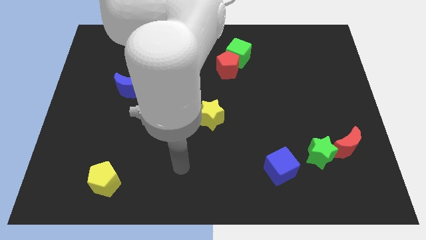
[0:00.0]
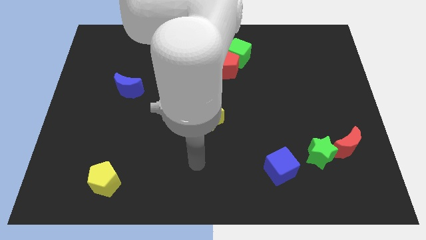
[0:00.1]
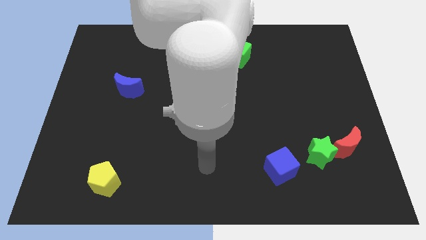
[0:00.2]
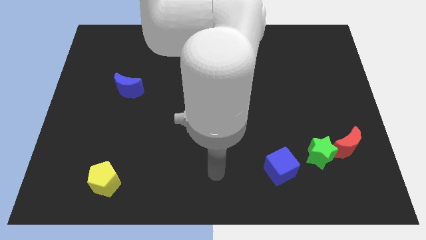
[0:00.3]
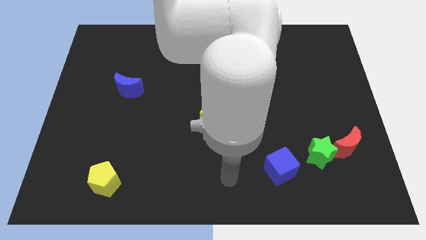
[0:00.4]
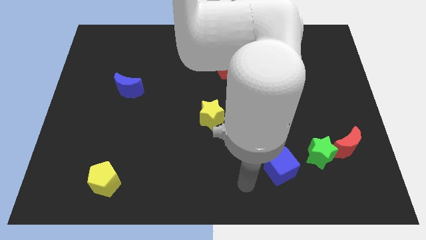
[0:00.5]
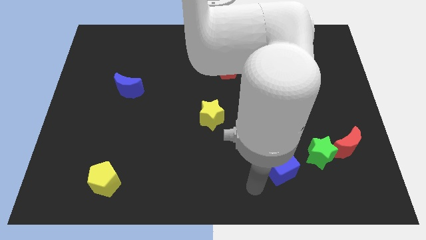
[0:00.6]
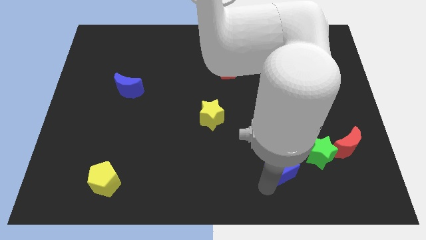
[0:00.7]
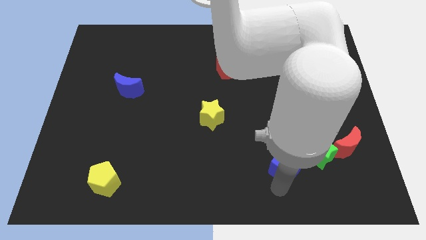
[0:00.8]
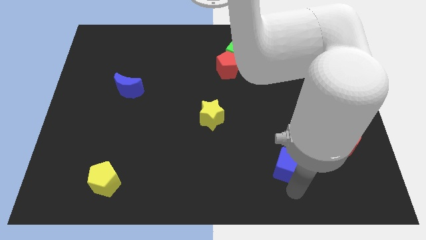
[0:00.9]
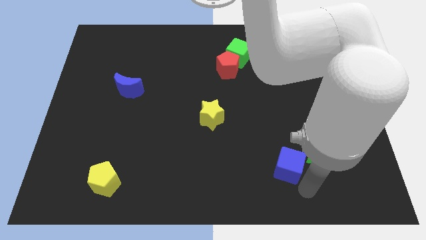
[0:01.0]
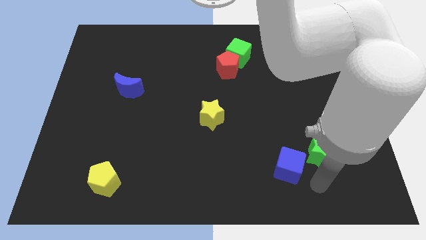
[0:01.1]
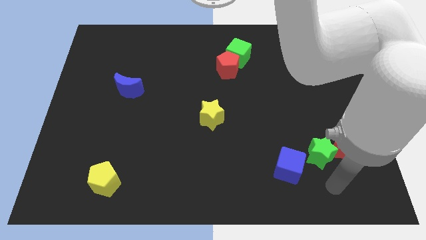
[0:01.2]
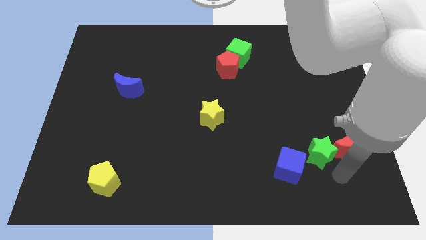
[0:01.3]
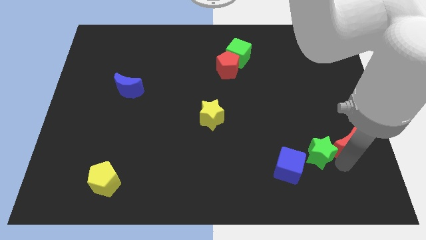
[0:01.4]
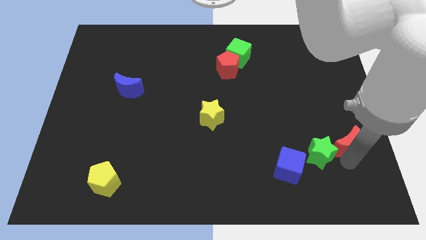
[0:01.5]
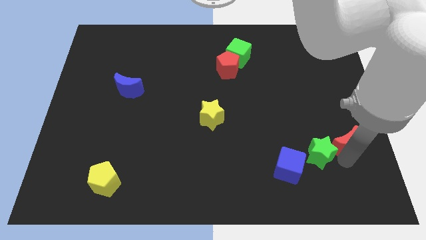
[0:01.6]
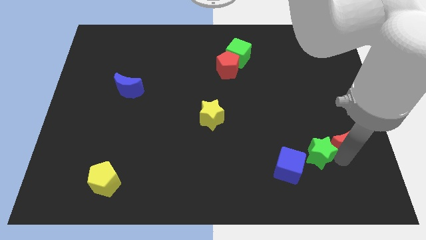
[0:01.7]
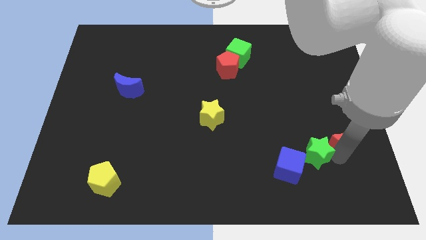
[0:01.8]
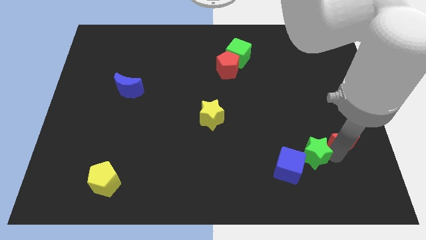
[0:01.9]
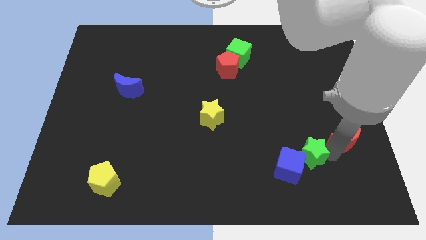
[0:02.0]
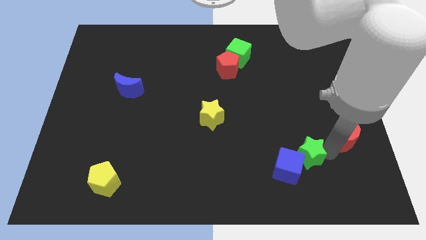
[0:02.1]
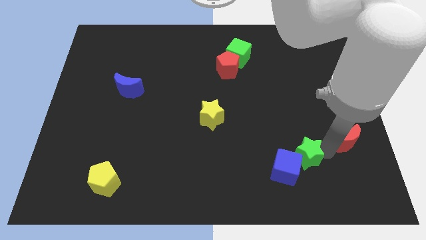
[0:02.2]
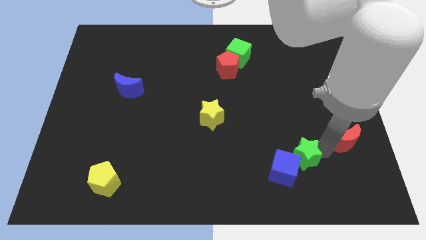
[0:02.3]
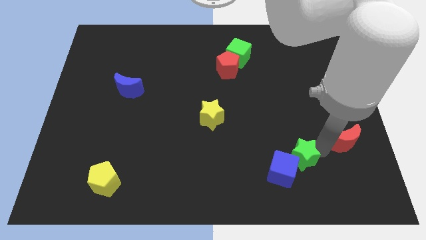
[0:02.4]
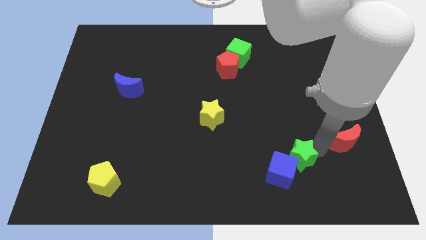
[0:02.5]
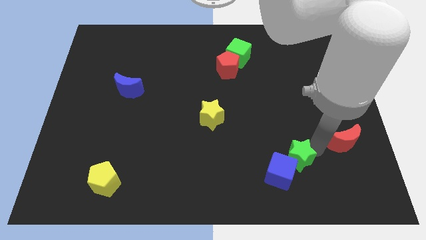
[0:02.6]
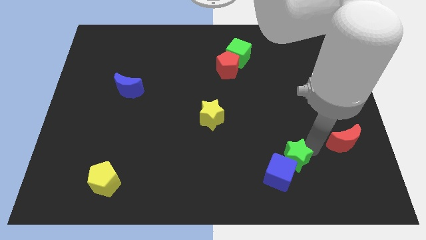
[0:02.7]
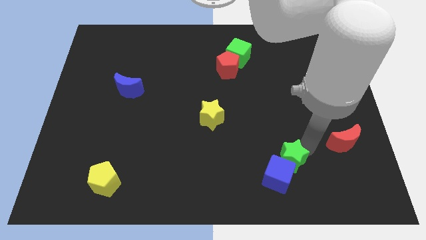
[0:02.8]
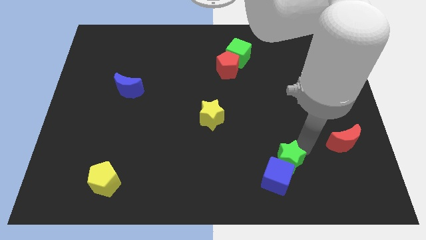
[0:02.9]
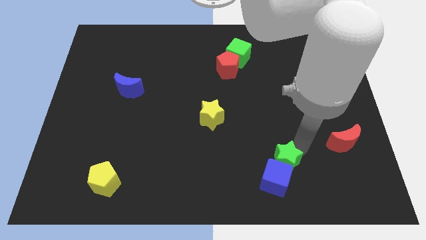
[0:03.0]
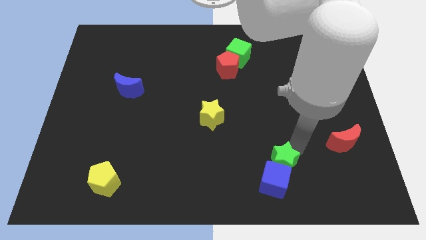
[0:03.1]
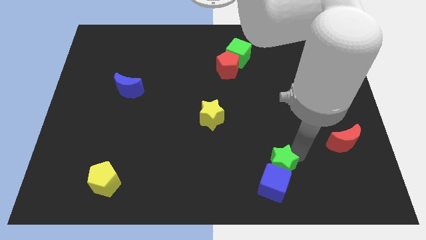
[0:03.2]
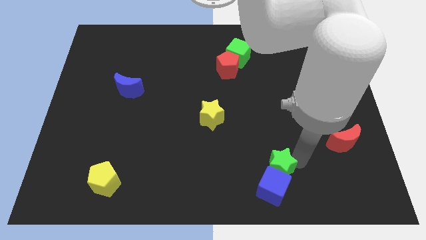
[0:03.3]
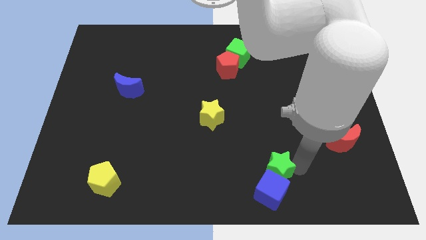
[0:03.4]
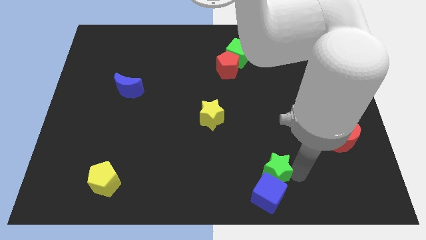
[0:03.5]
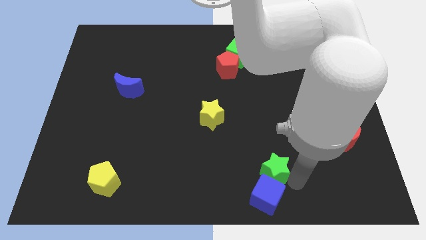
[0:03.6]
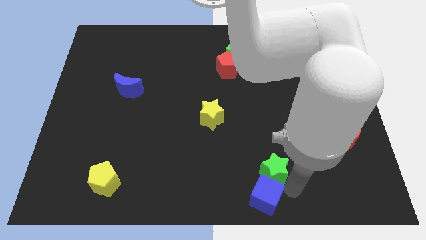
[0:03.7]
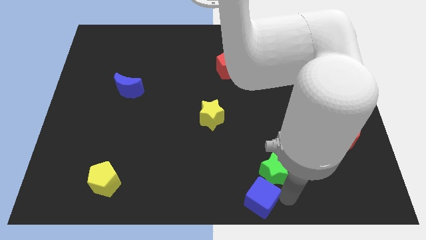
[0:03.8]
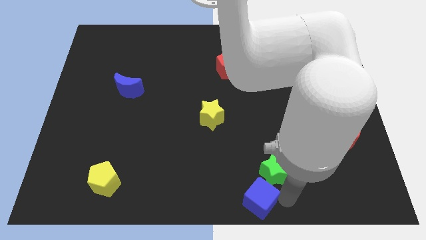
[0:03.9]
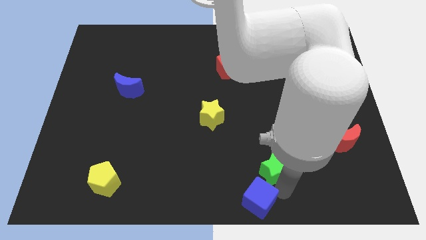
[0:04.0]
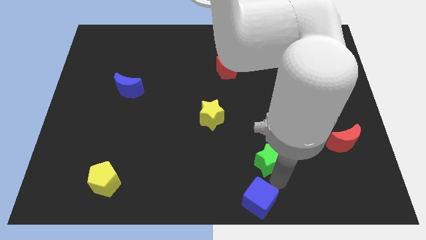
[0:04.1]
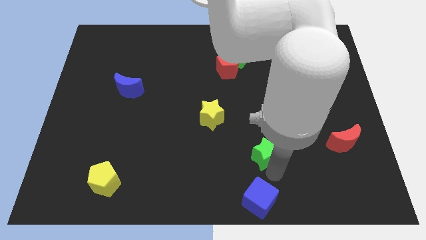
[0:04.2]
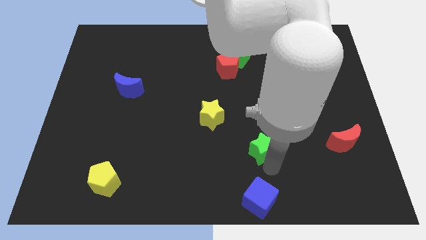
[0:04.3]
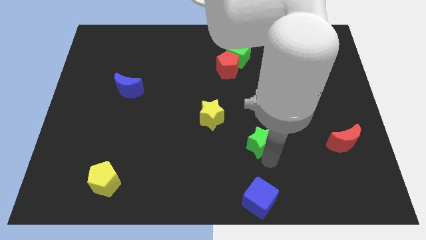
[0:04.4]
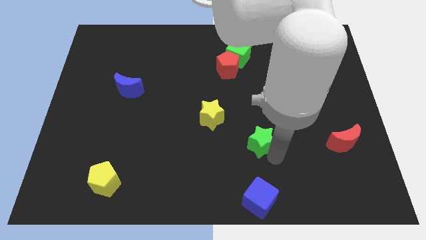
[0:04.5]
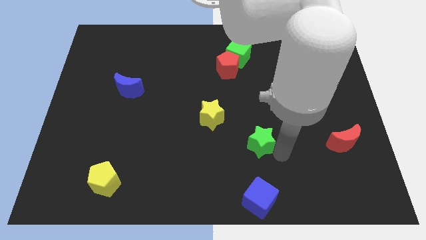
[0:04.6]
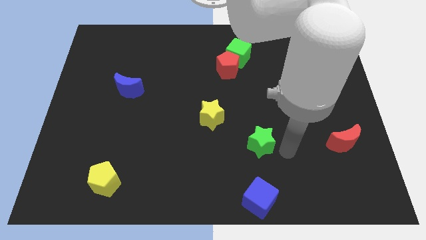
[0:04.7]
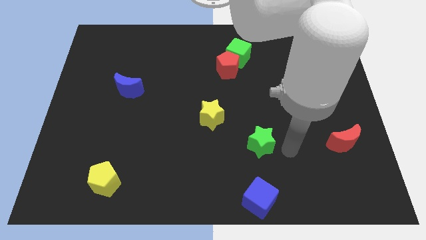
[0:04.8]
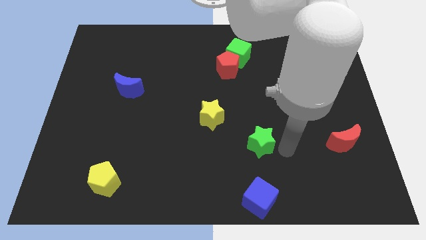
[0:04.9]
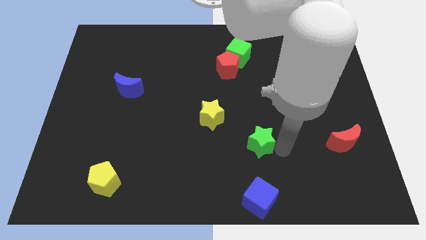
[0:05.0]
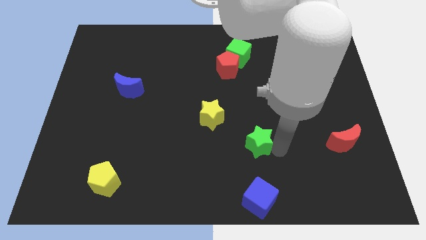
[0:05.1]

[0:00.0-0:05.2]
move the green star to the bottom right of the yellow star

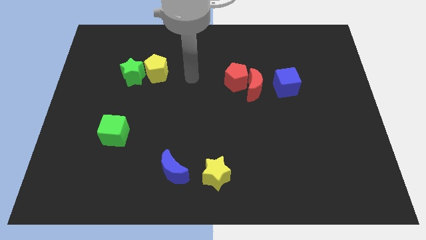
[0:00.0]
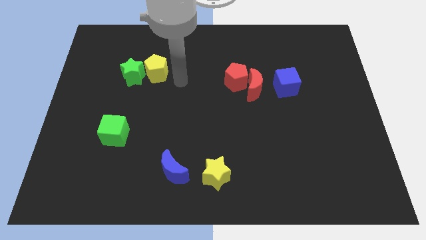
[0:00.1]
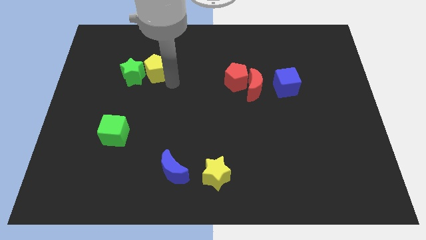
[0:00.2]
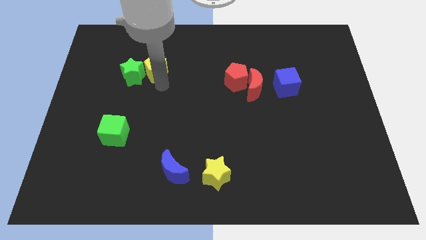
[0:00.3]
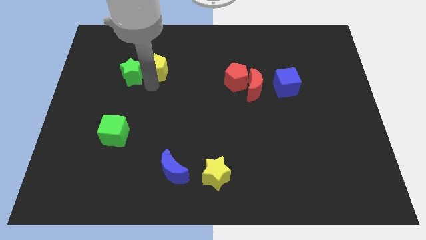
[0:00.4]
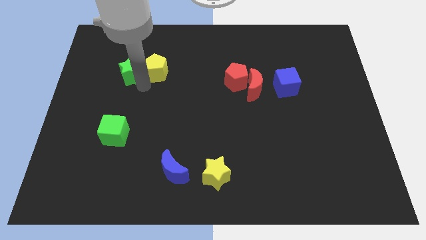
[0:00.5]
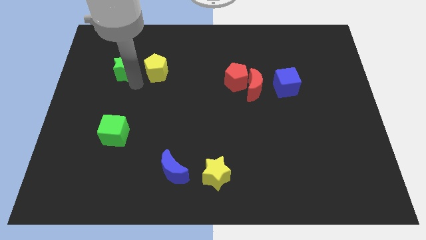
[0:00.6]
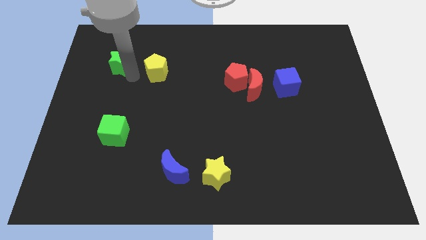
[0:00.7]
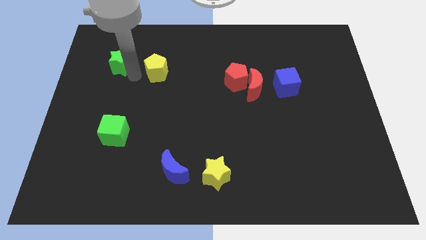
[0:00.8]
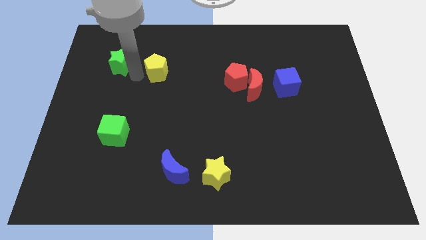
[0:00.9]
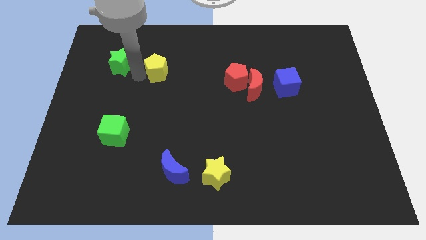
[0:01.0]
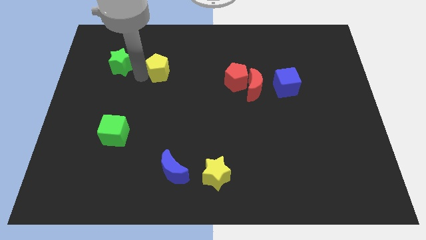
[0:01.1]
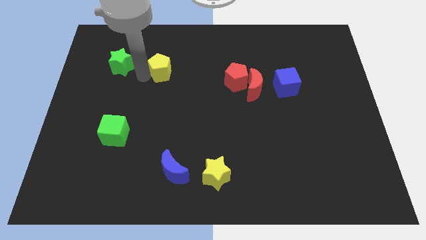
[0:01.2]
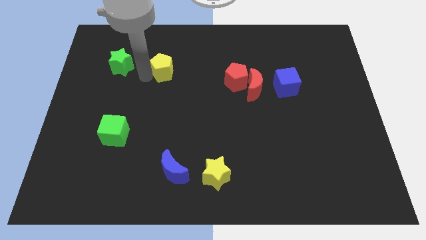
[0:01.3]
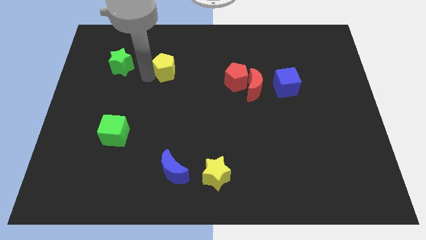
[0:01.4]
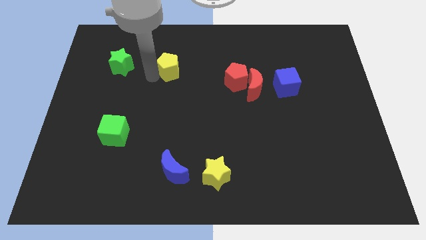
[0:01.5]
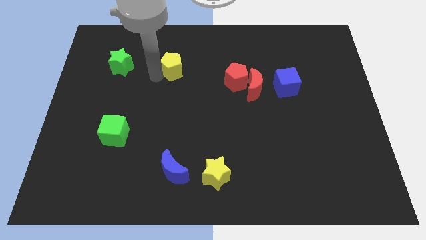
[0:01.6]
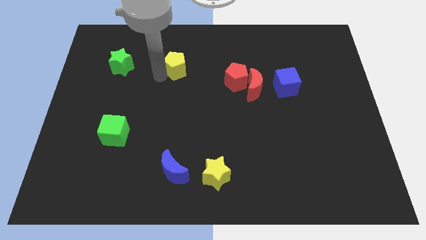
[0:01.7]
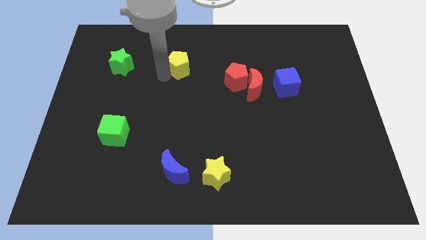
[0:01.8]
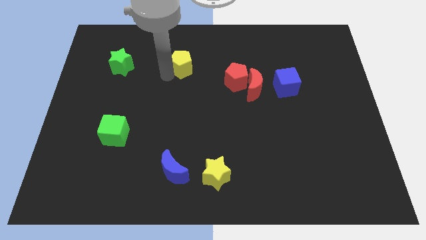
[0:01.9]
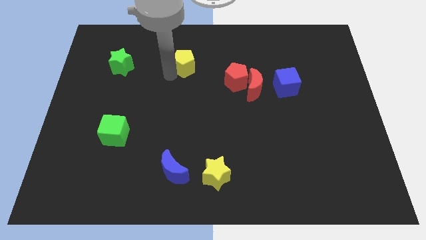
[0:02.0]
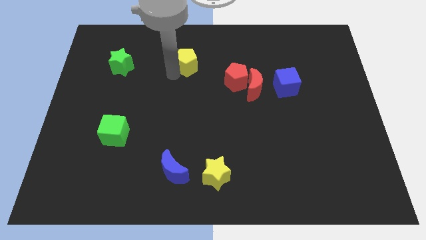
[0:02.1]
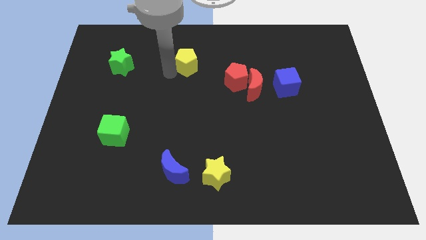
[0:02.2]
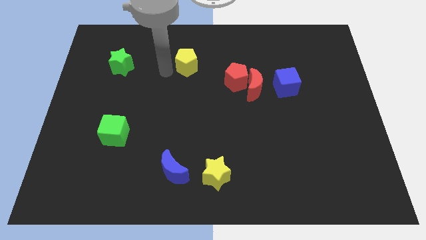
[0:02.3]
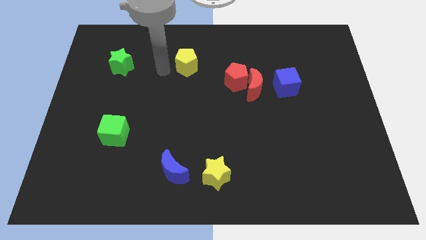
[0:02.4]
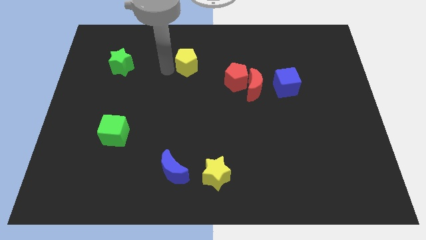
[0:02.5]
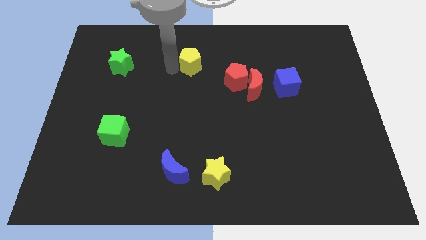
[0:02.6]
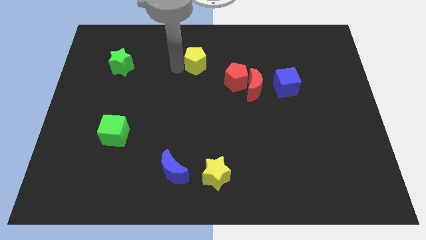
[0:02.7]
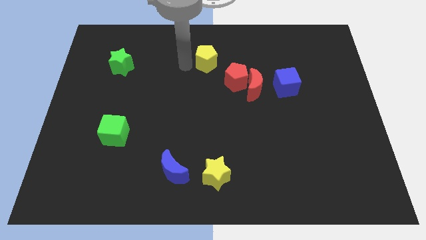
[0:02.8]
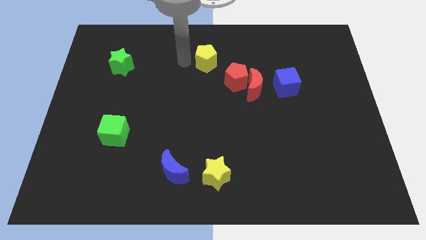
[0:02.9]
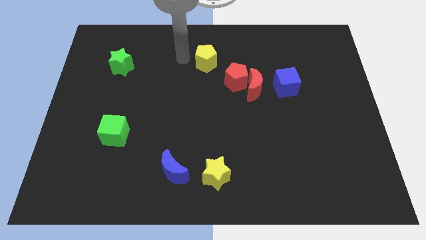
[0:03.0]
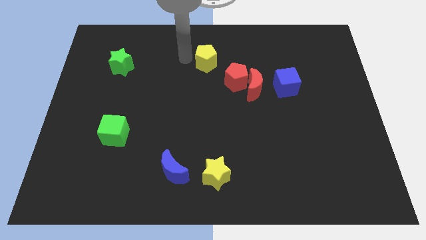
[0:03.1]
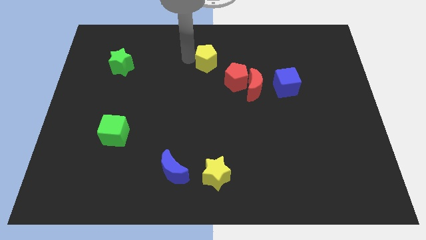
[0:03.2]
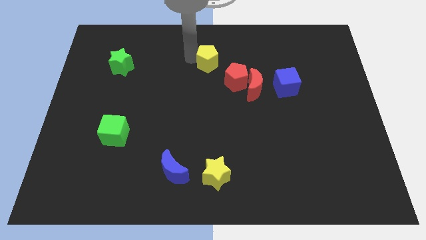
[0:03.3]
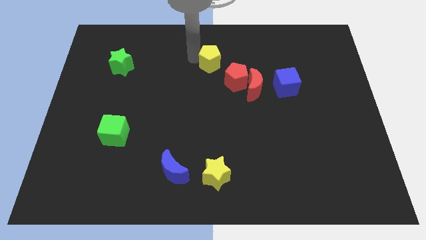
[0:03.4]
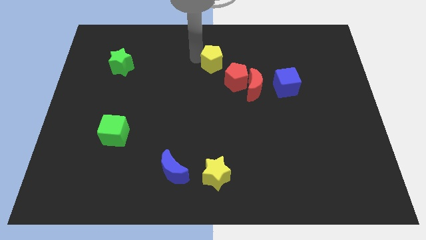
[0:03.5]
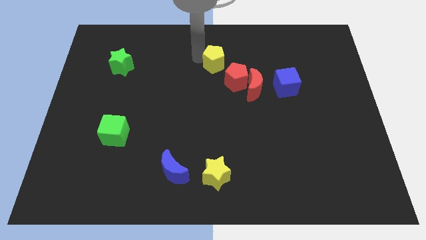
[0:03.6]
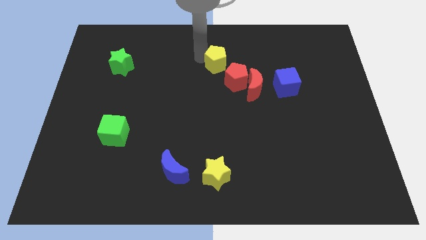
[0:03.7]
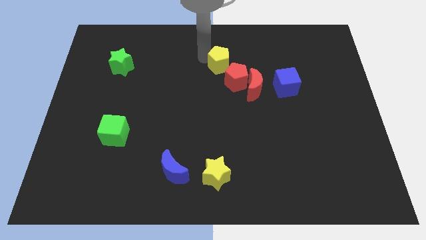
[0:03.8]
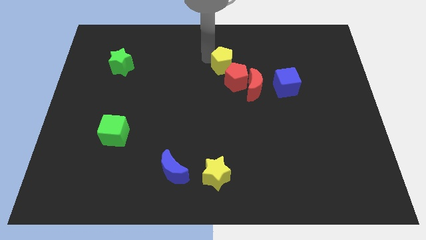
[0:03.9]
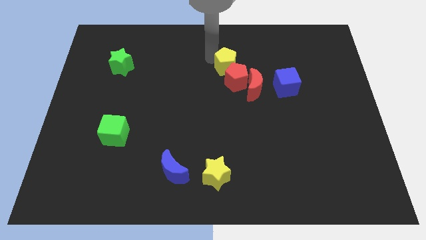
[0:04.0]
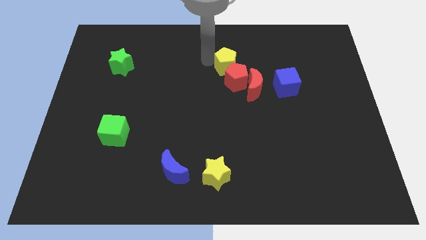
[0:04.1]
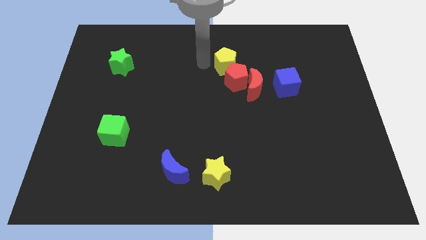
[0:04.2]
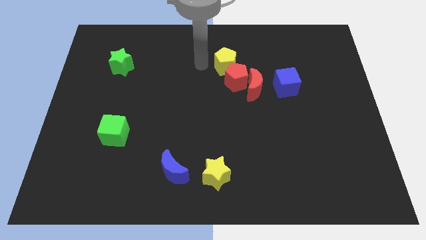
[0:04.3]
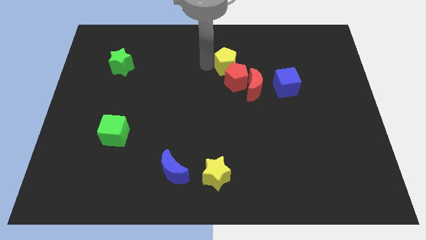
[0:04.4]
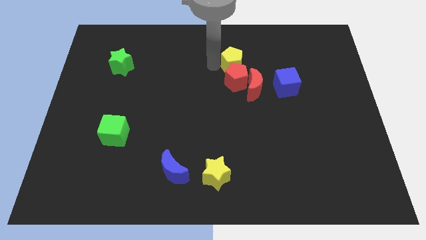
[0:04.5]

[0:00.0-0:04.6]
slide the yellow pentagon diagonally up and to the right of the red pentagon
